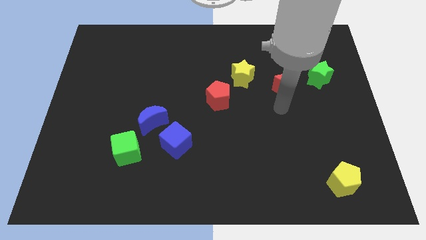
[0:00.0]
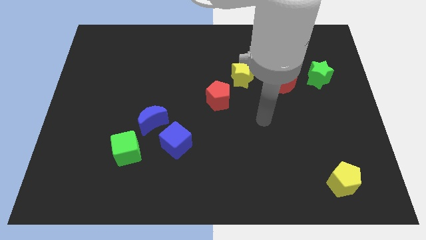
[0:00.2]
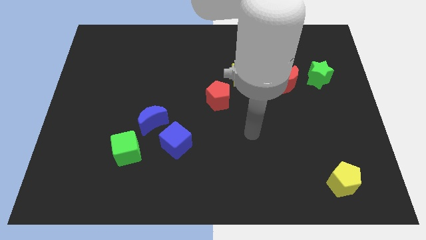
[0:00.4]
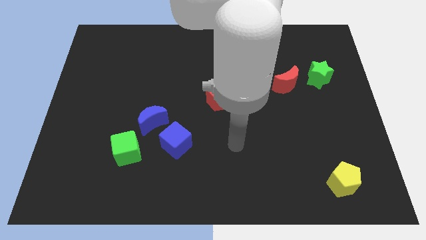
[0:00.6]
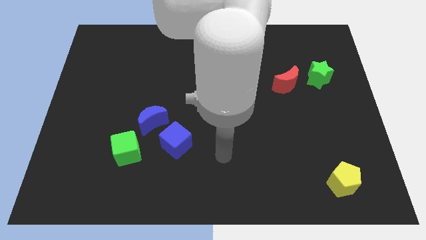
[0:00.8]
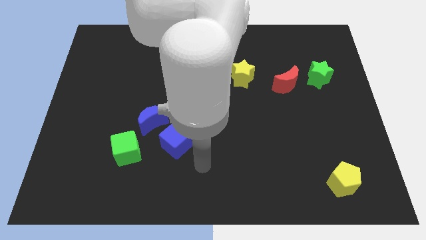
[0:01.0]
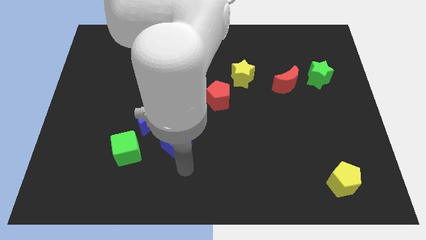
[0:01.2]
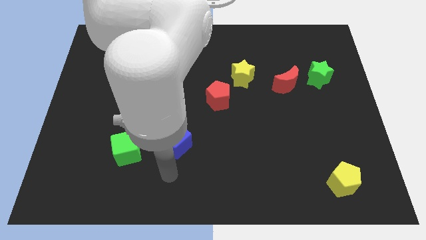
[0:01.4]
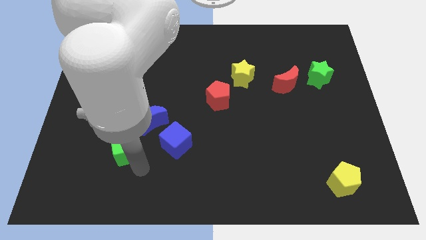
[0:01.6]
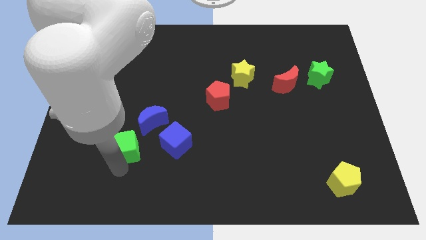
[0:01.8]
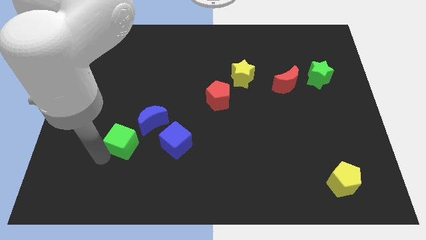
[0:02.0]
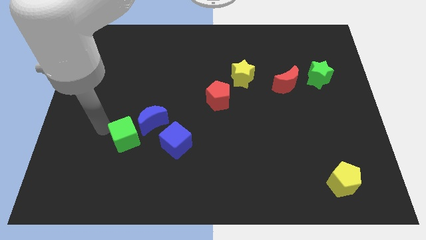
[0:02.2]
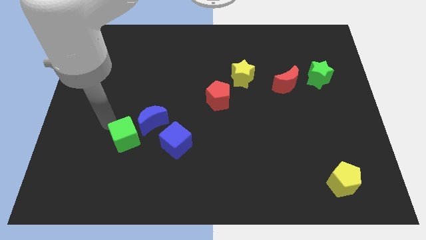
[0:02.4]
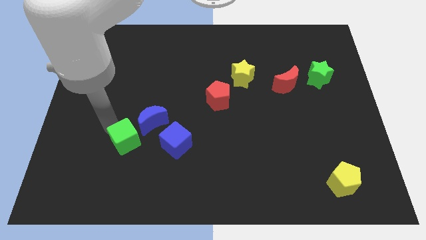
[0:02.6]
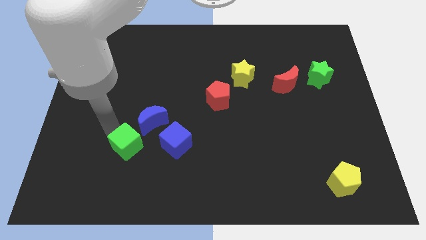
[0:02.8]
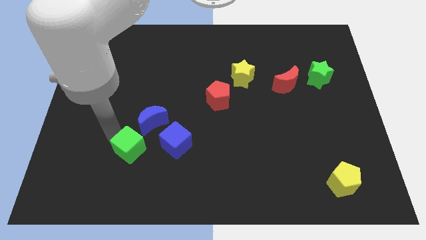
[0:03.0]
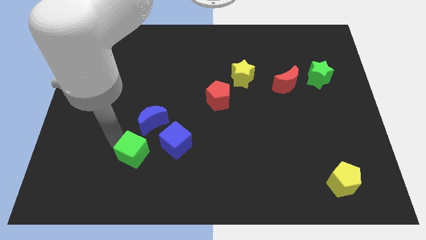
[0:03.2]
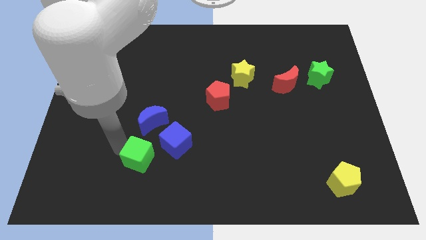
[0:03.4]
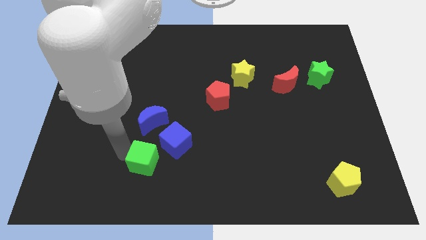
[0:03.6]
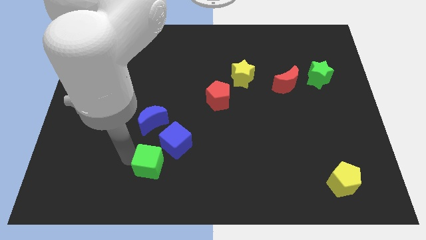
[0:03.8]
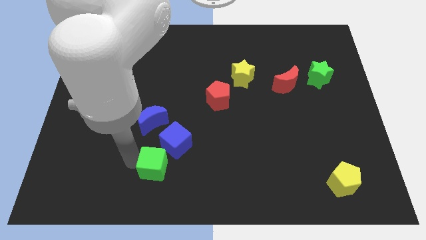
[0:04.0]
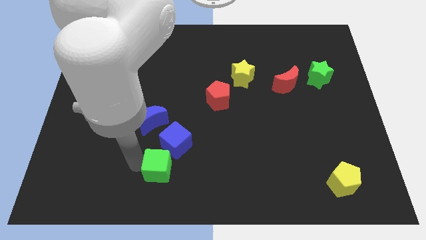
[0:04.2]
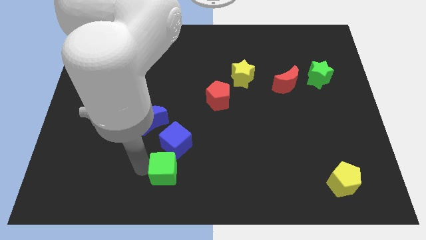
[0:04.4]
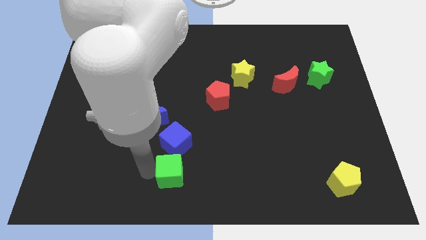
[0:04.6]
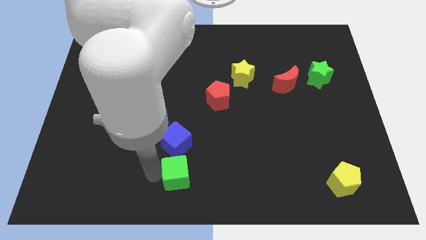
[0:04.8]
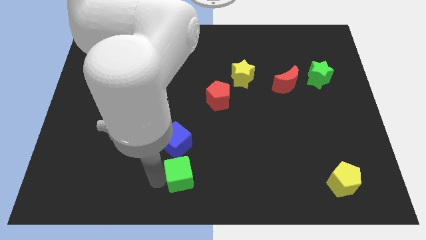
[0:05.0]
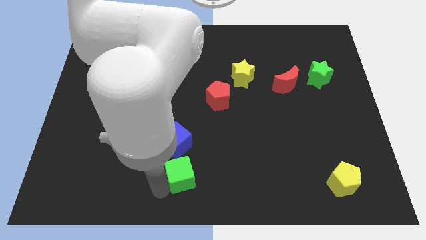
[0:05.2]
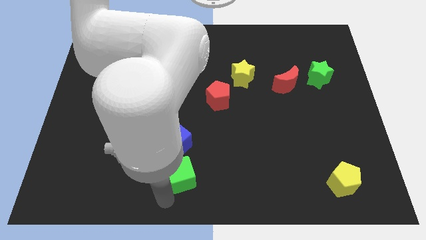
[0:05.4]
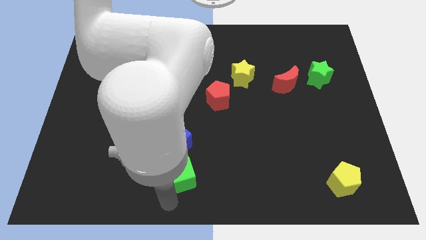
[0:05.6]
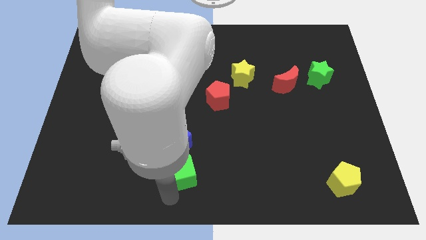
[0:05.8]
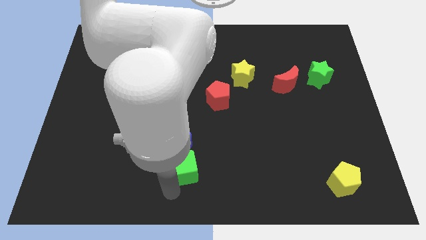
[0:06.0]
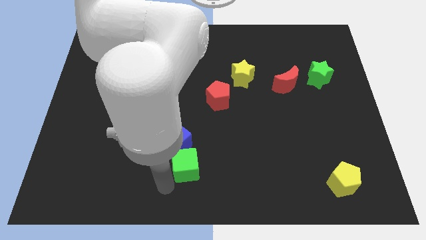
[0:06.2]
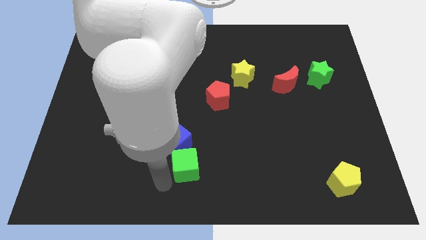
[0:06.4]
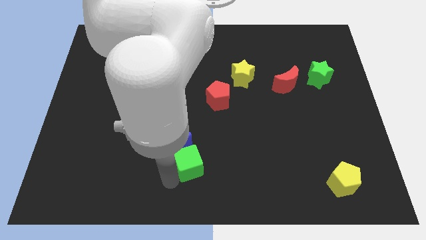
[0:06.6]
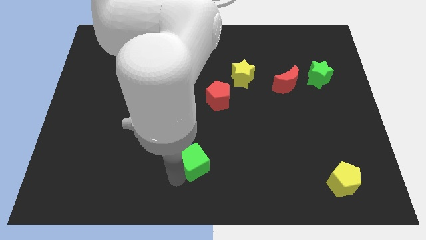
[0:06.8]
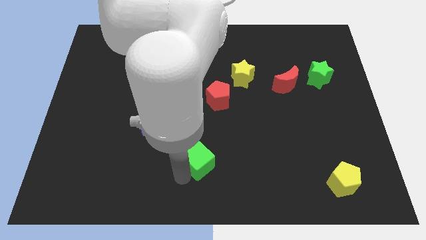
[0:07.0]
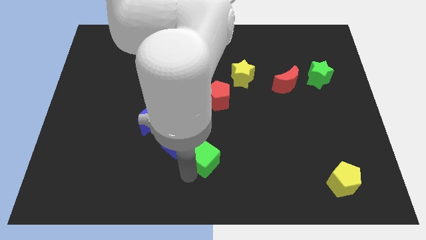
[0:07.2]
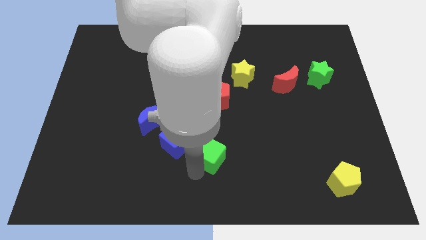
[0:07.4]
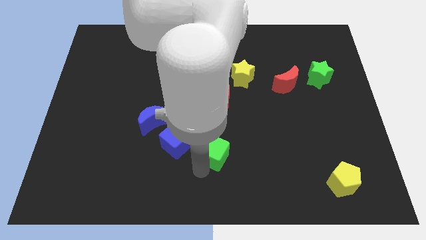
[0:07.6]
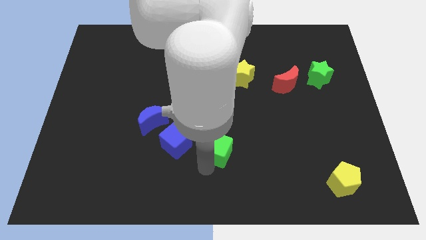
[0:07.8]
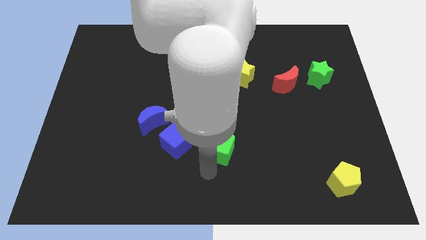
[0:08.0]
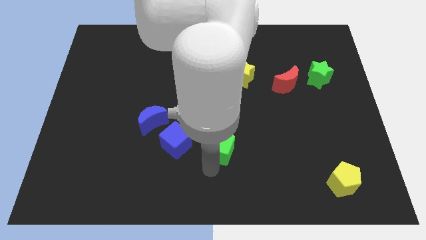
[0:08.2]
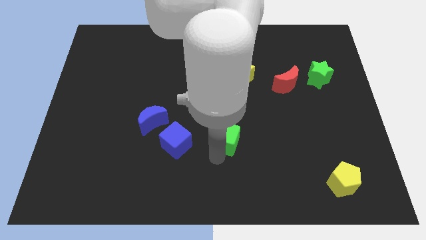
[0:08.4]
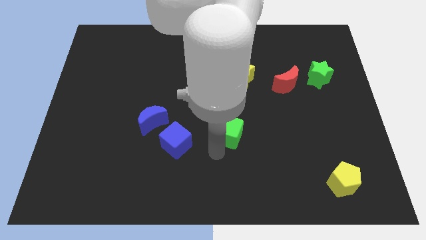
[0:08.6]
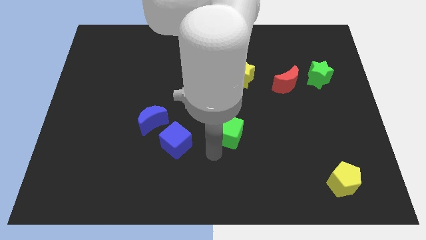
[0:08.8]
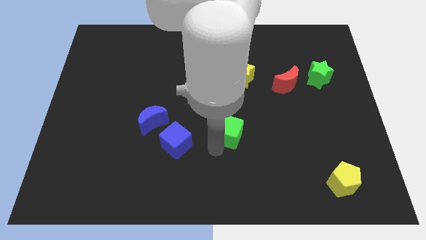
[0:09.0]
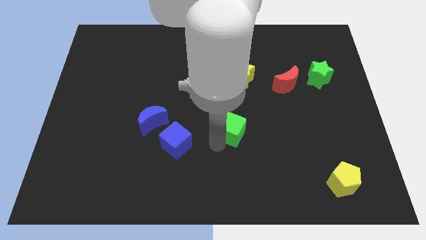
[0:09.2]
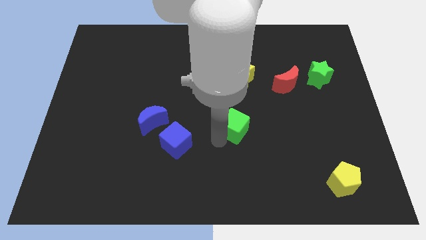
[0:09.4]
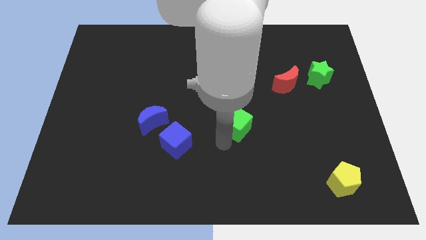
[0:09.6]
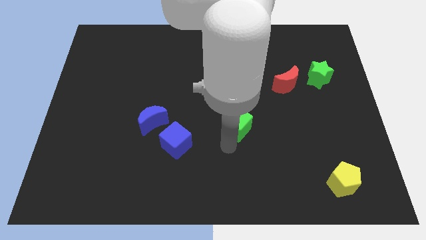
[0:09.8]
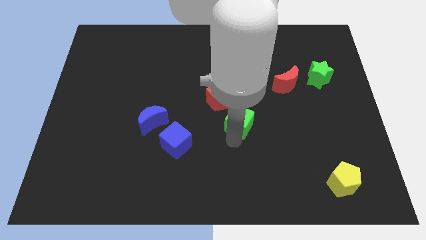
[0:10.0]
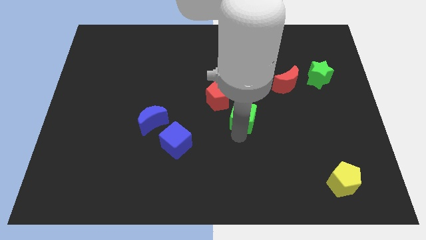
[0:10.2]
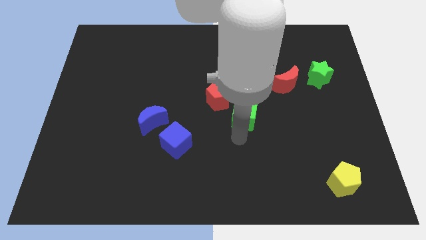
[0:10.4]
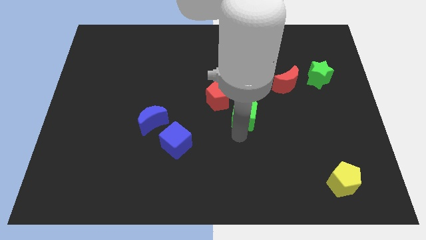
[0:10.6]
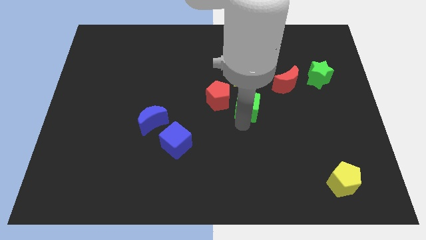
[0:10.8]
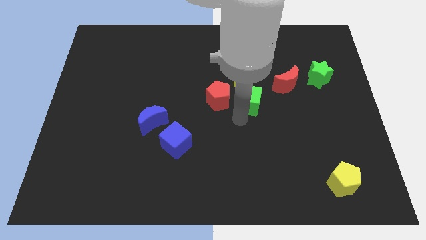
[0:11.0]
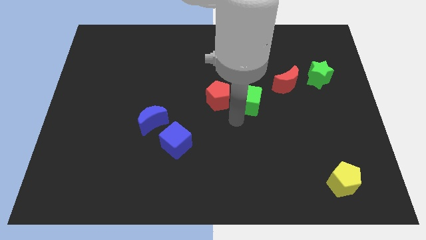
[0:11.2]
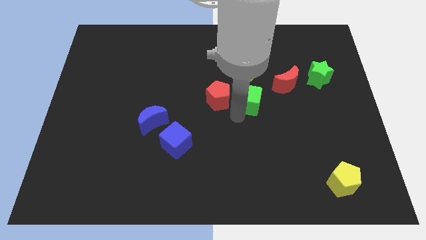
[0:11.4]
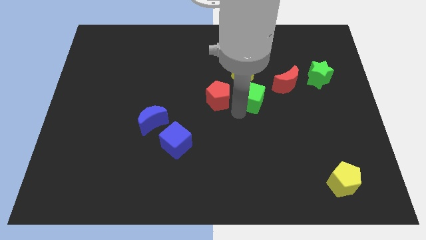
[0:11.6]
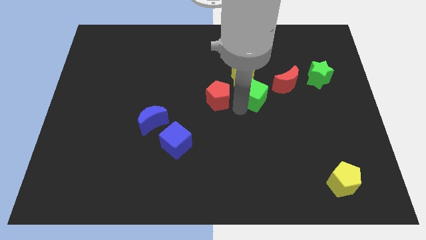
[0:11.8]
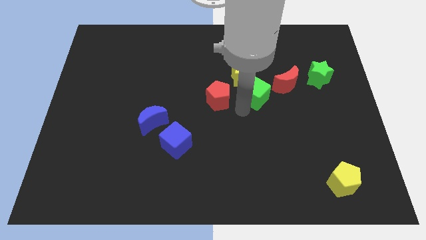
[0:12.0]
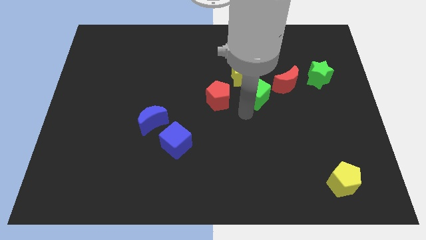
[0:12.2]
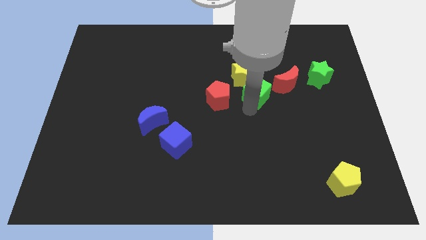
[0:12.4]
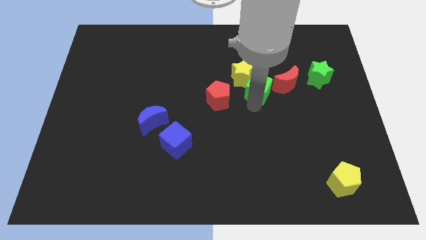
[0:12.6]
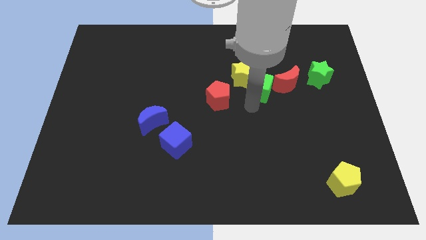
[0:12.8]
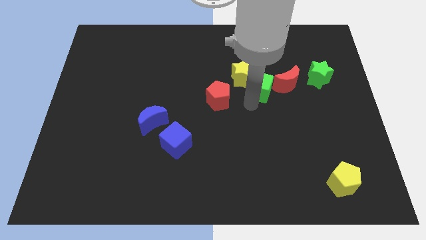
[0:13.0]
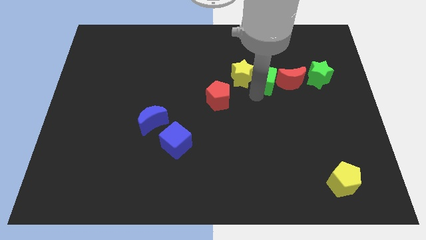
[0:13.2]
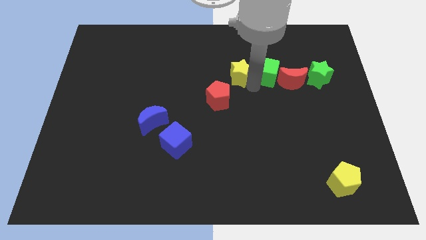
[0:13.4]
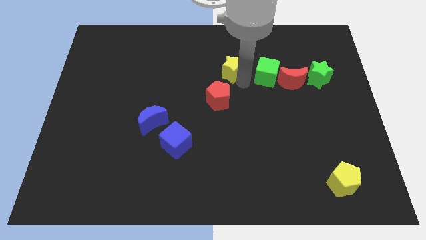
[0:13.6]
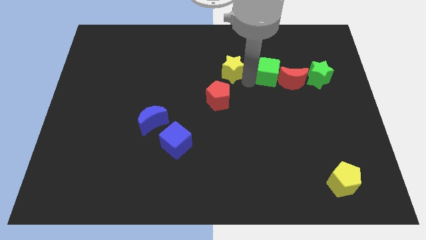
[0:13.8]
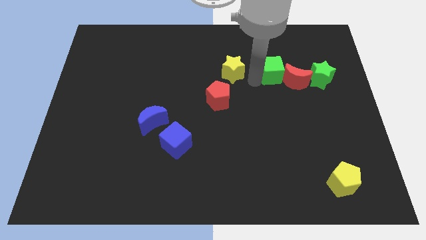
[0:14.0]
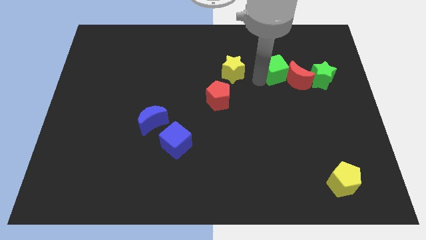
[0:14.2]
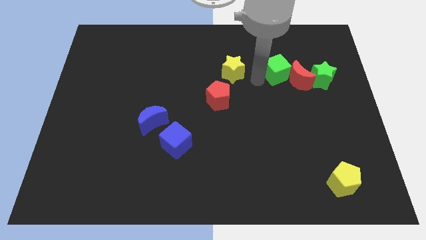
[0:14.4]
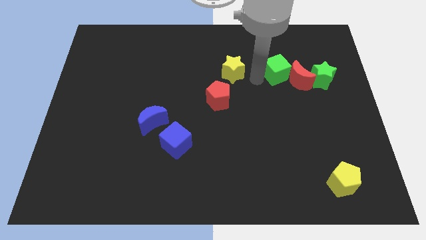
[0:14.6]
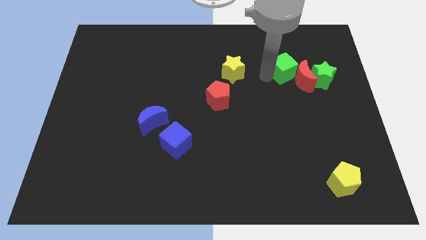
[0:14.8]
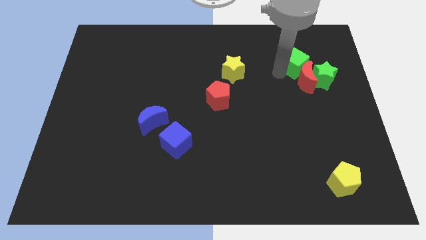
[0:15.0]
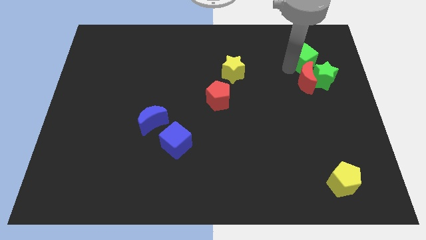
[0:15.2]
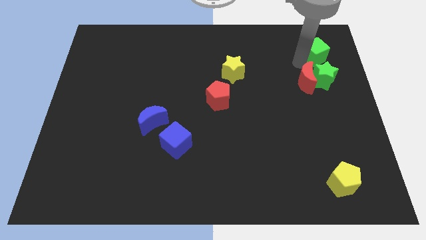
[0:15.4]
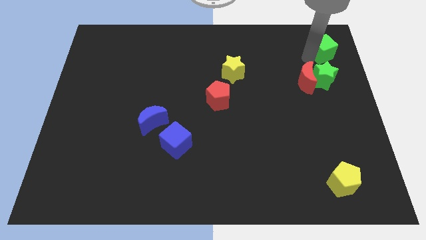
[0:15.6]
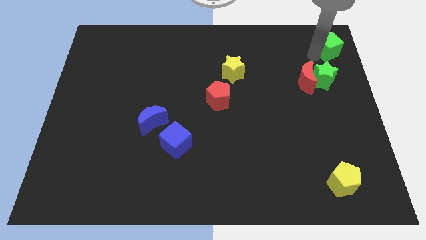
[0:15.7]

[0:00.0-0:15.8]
move the green cube to the top right
